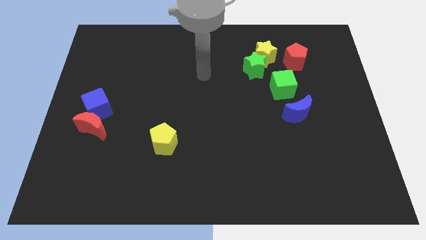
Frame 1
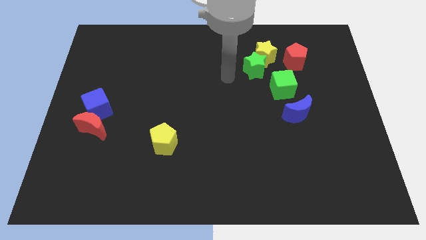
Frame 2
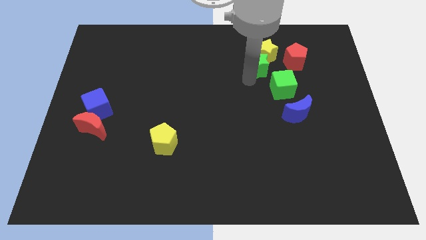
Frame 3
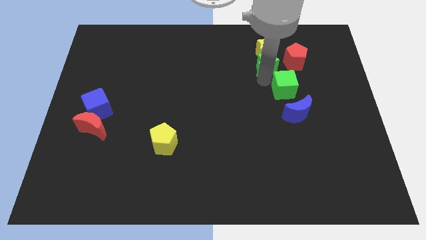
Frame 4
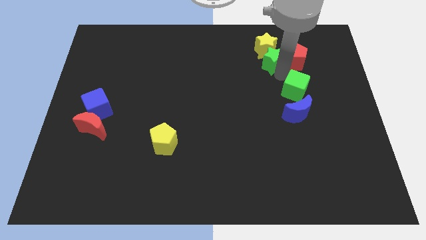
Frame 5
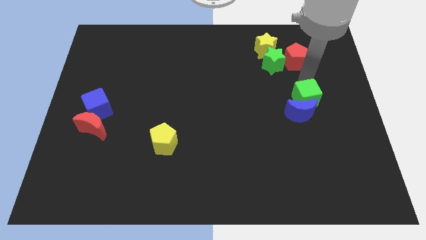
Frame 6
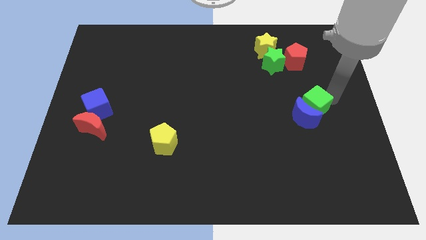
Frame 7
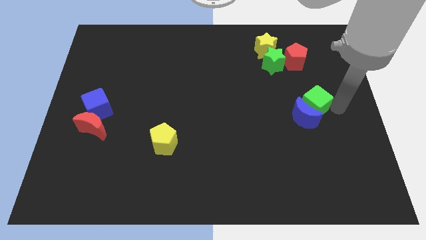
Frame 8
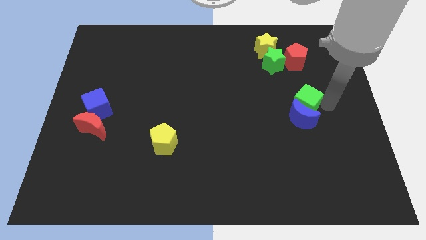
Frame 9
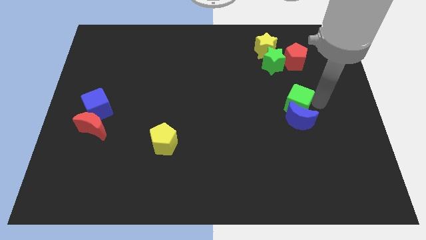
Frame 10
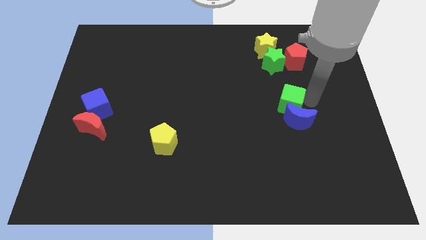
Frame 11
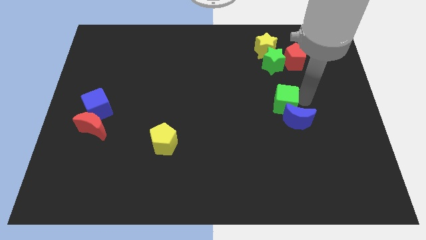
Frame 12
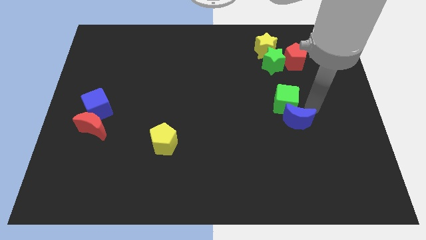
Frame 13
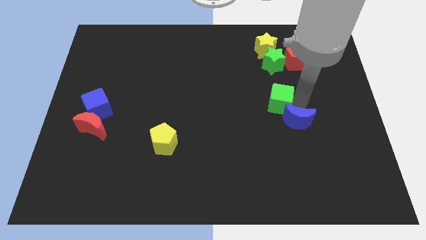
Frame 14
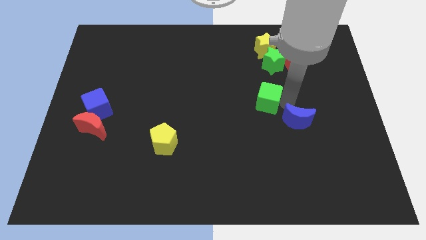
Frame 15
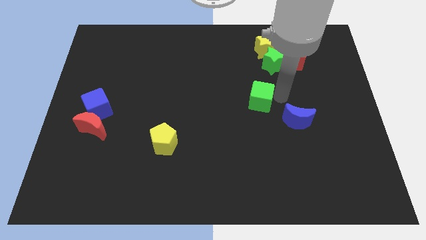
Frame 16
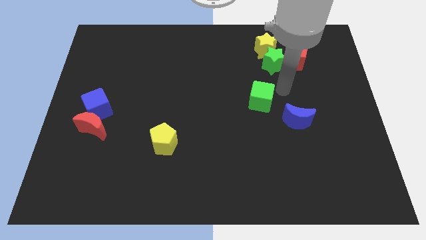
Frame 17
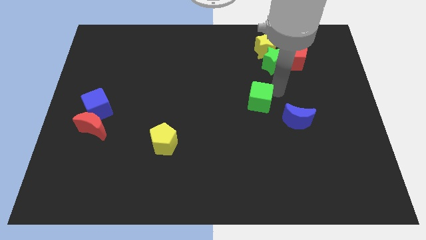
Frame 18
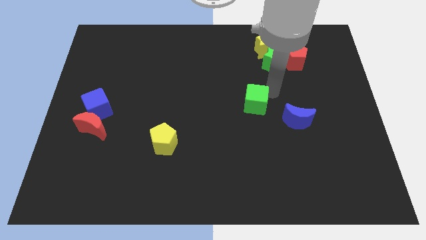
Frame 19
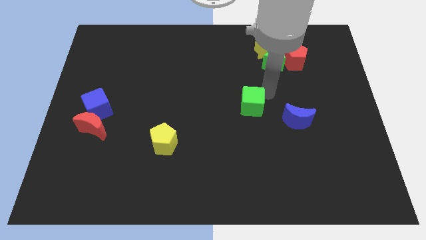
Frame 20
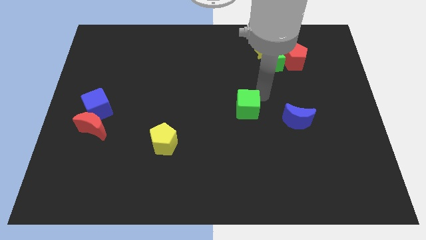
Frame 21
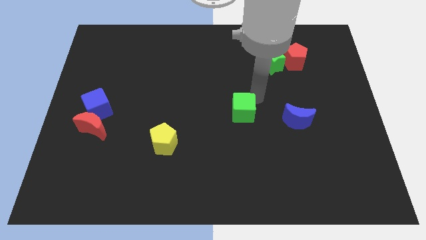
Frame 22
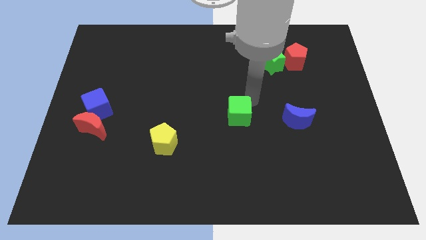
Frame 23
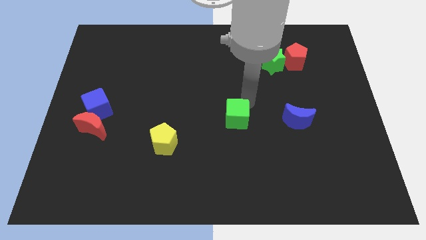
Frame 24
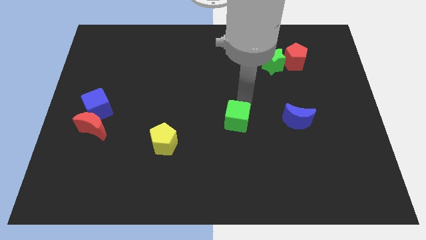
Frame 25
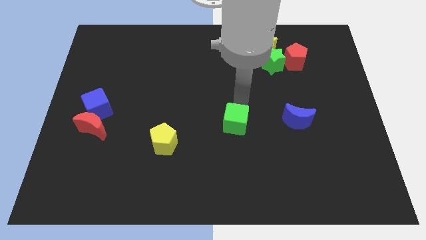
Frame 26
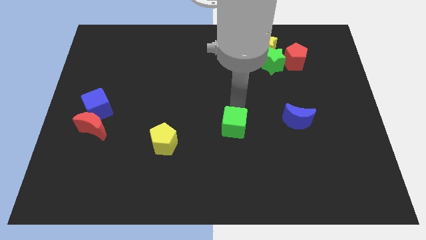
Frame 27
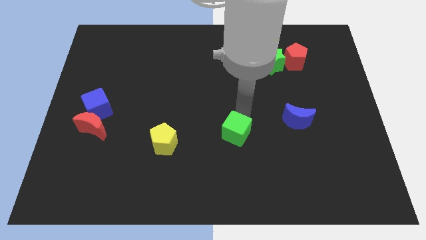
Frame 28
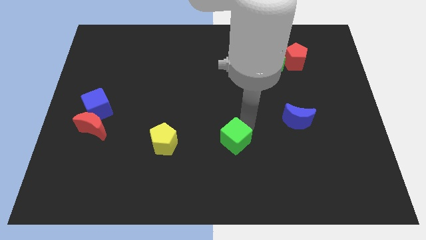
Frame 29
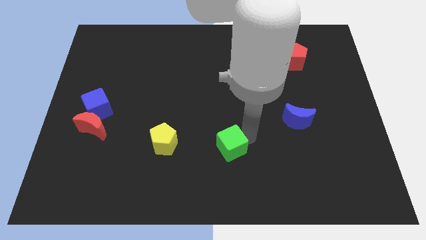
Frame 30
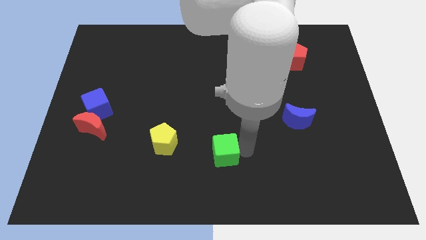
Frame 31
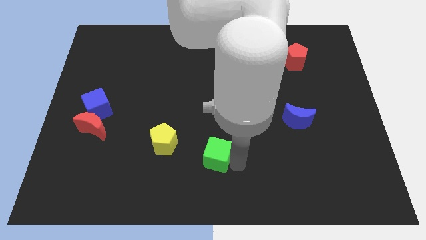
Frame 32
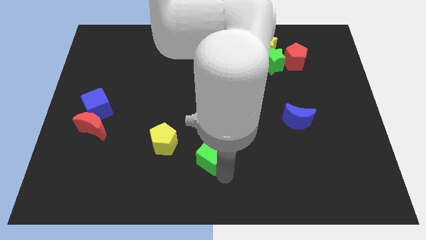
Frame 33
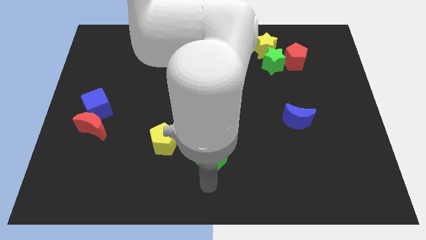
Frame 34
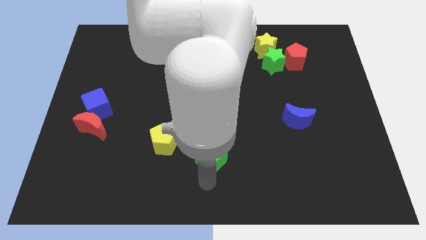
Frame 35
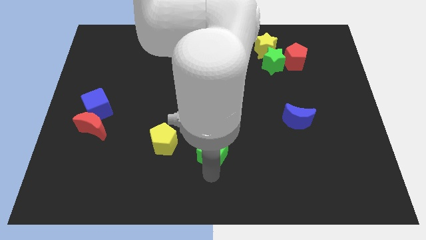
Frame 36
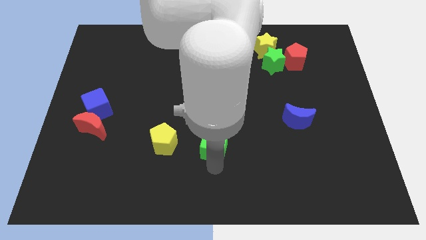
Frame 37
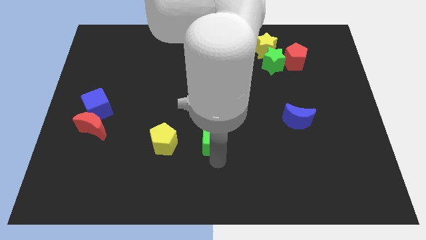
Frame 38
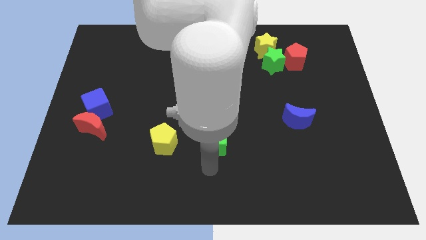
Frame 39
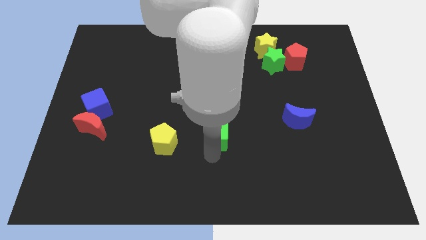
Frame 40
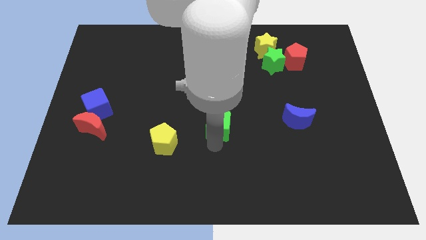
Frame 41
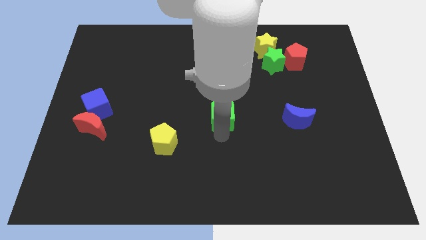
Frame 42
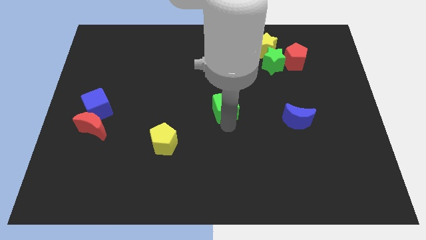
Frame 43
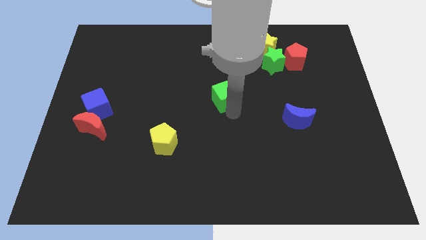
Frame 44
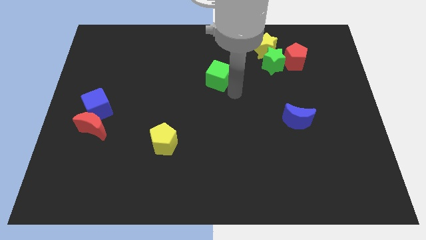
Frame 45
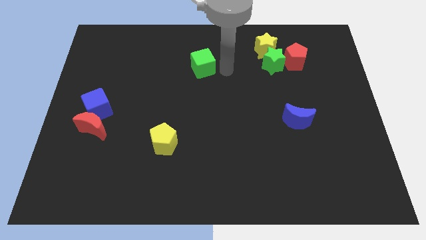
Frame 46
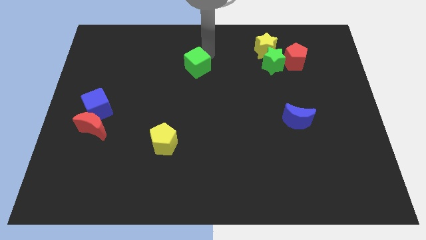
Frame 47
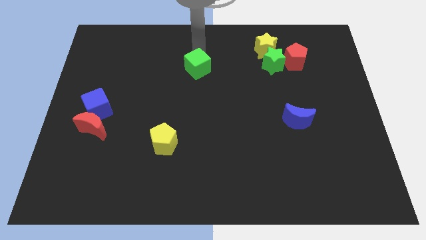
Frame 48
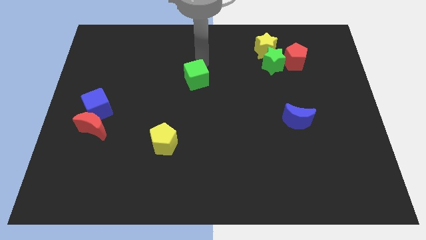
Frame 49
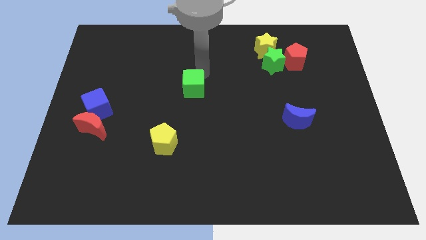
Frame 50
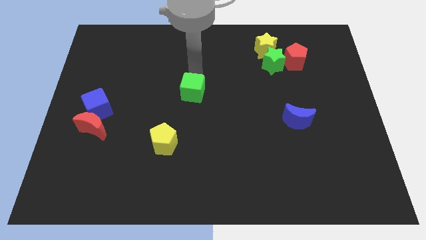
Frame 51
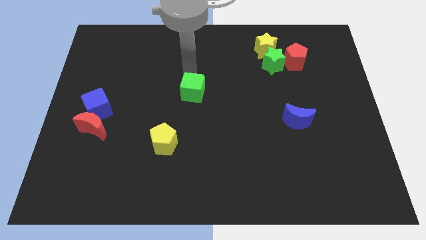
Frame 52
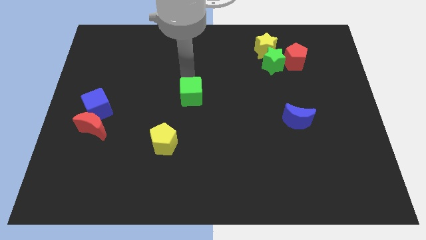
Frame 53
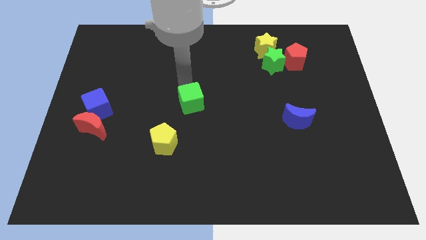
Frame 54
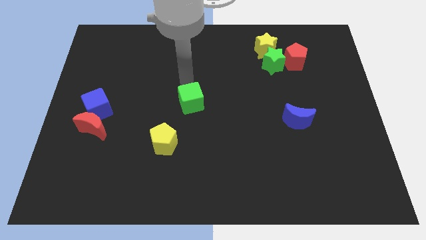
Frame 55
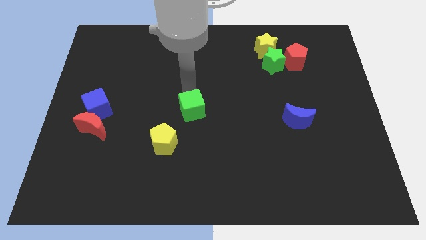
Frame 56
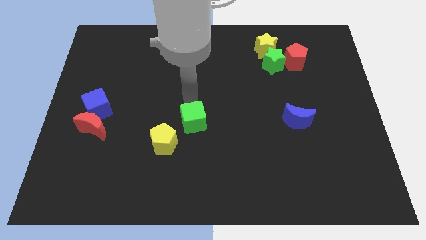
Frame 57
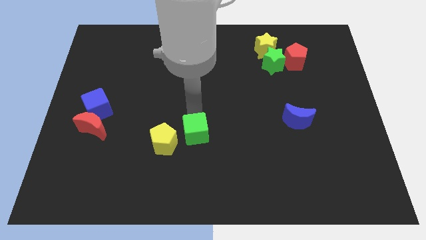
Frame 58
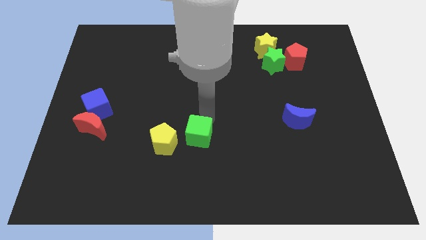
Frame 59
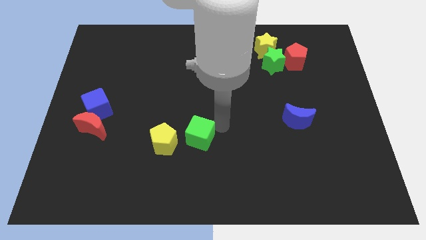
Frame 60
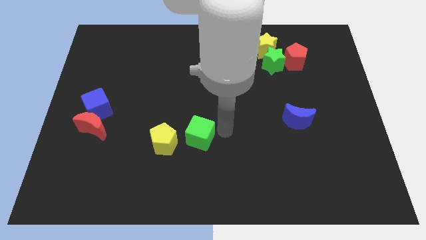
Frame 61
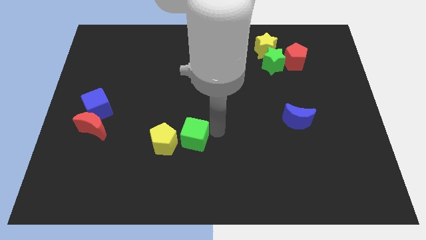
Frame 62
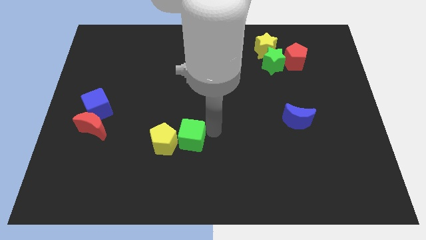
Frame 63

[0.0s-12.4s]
move the green cube towards the yellow pentagon

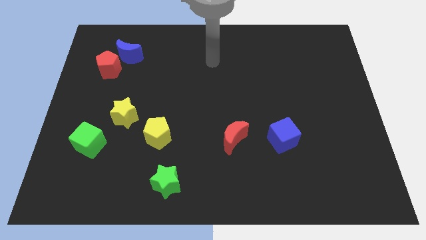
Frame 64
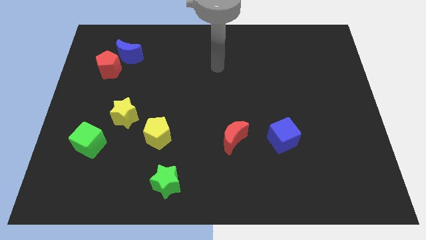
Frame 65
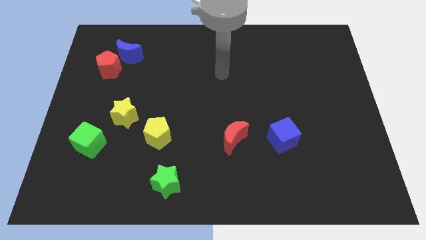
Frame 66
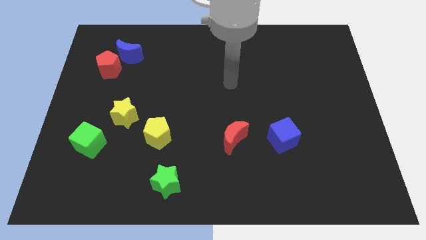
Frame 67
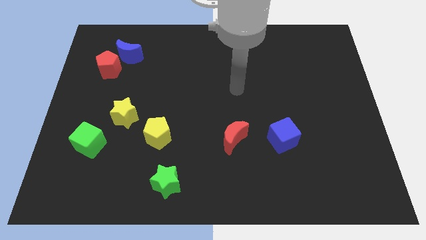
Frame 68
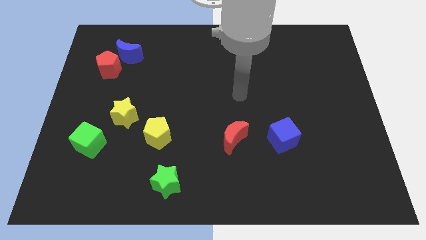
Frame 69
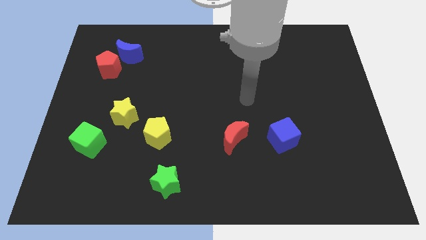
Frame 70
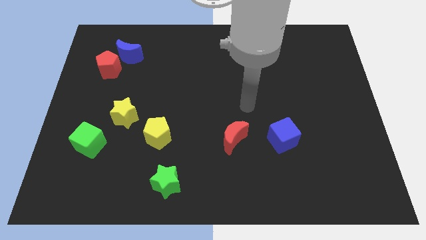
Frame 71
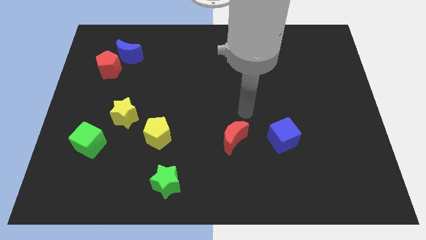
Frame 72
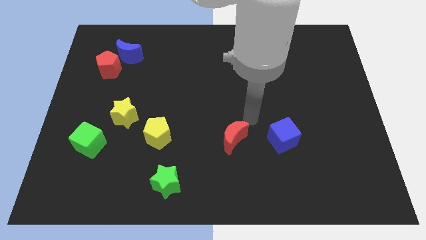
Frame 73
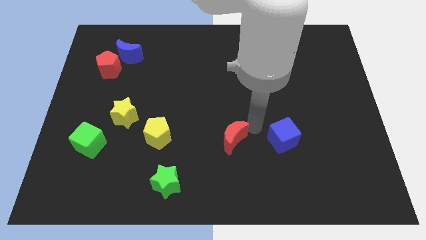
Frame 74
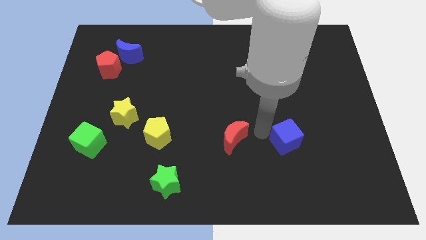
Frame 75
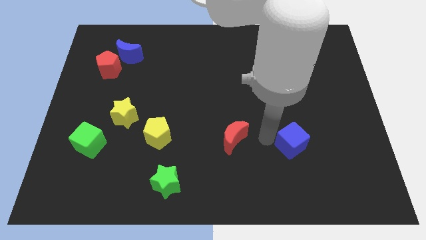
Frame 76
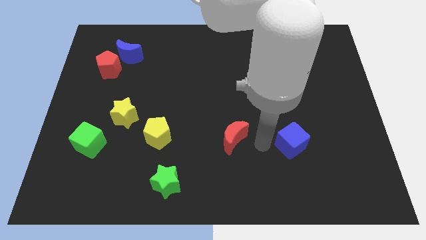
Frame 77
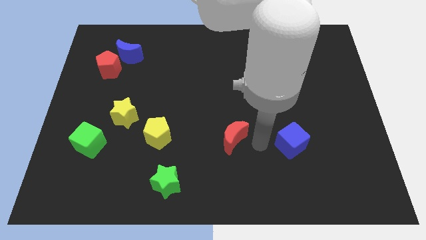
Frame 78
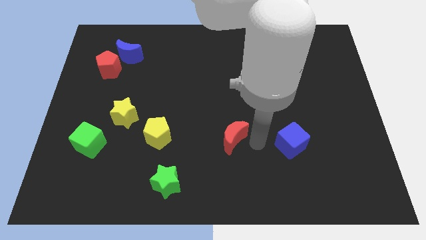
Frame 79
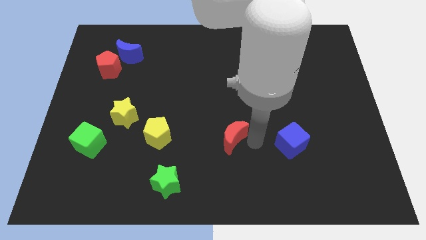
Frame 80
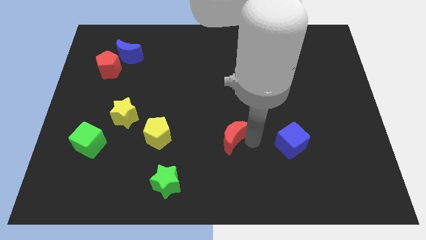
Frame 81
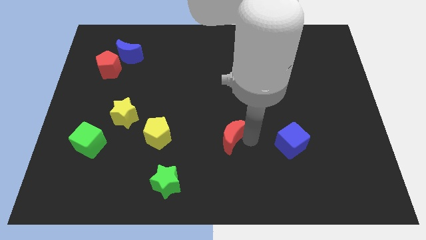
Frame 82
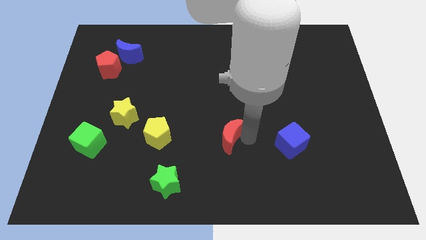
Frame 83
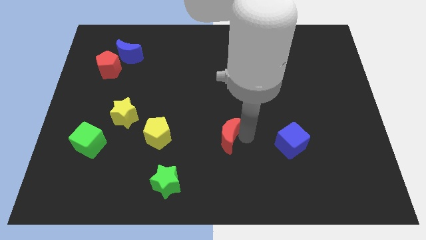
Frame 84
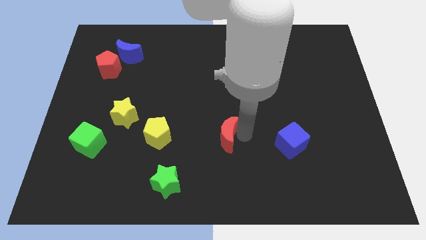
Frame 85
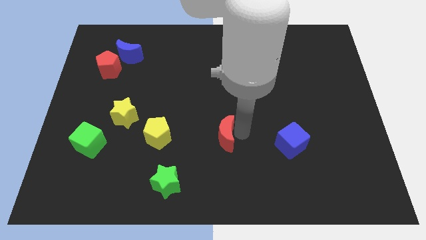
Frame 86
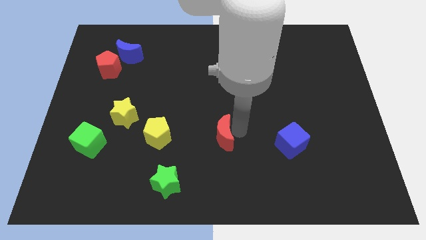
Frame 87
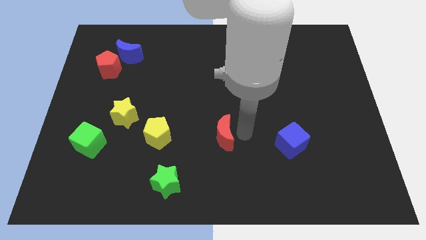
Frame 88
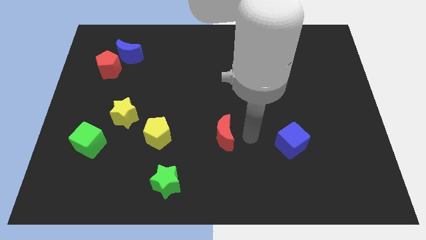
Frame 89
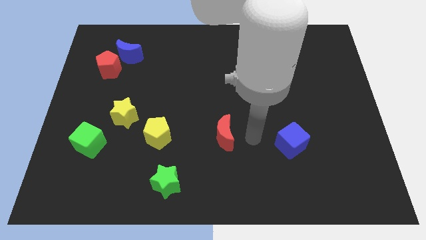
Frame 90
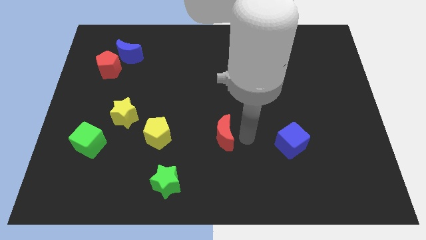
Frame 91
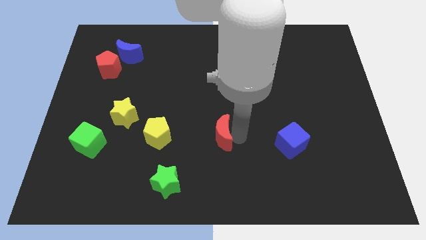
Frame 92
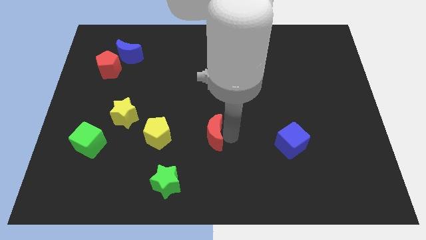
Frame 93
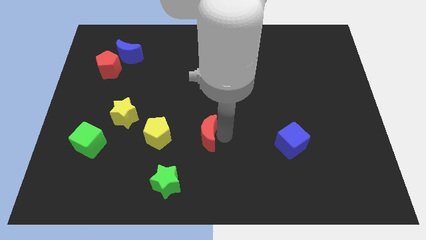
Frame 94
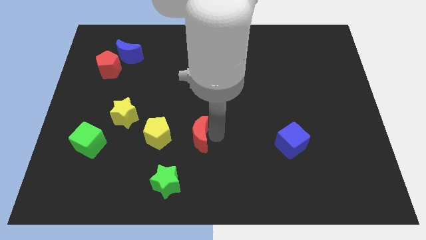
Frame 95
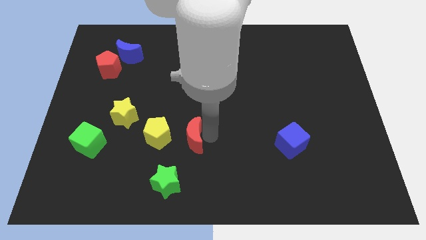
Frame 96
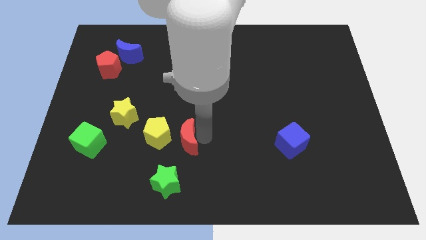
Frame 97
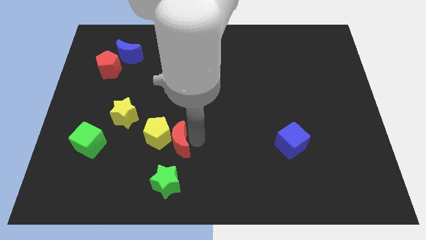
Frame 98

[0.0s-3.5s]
move the red moon close to the yellow pentagon
